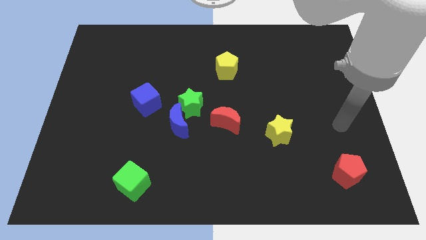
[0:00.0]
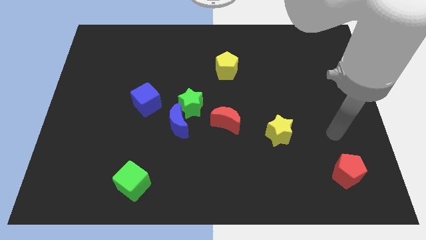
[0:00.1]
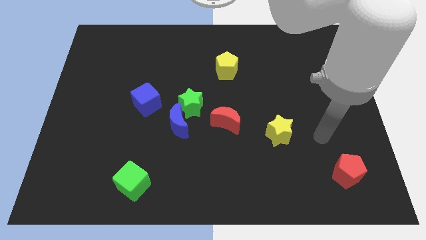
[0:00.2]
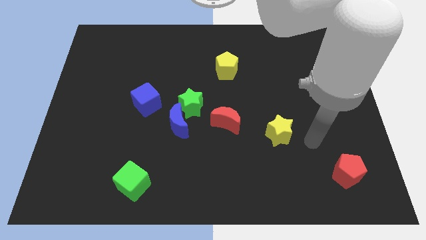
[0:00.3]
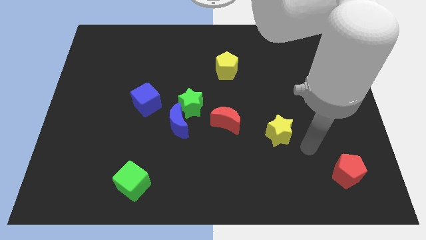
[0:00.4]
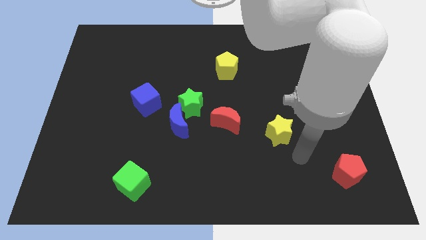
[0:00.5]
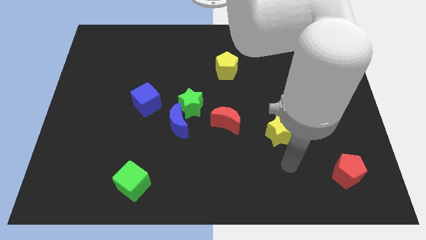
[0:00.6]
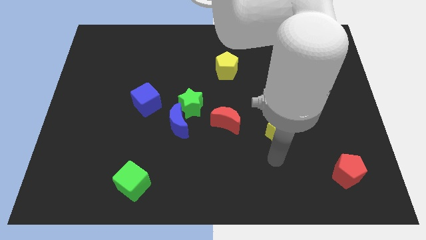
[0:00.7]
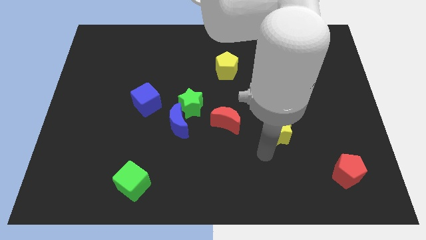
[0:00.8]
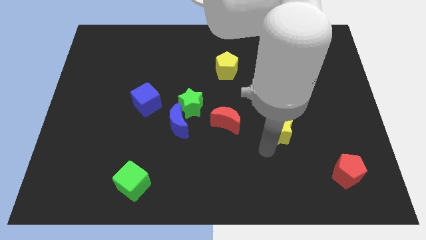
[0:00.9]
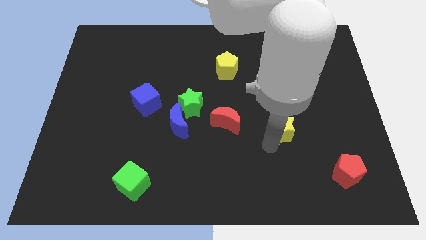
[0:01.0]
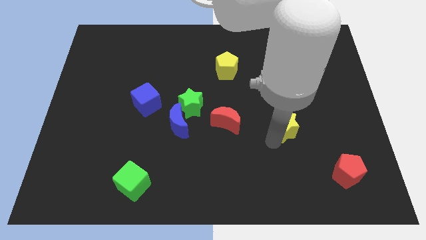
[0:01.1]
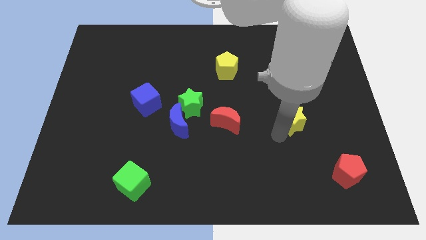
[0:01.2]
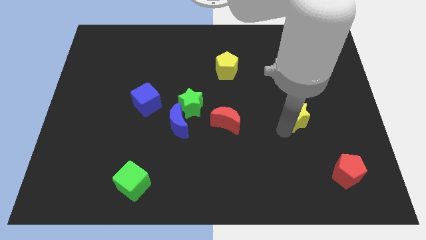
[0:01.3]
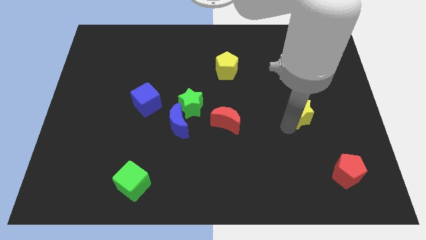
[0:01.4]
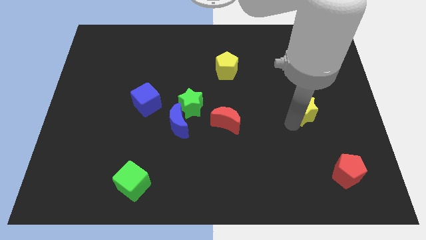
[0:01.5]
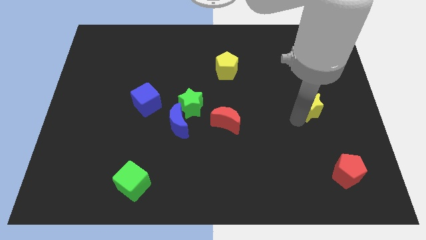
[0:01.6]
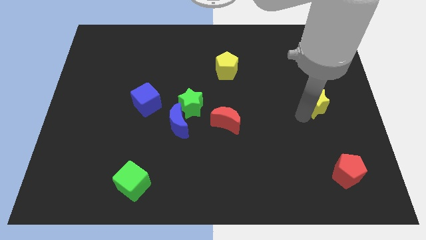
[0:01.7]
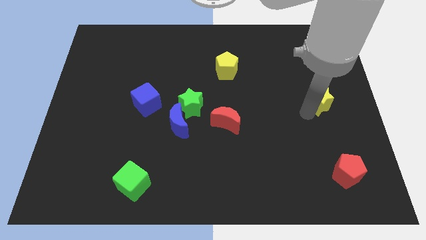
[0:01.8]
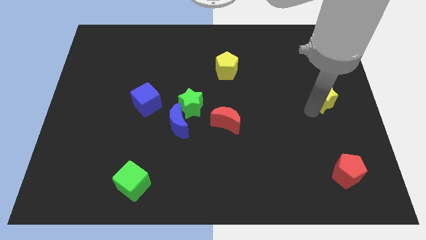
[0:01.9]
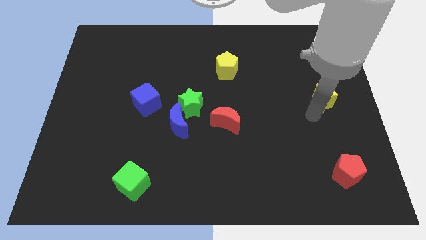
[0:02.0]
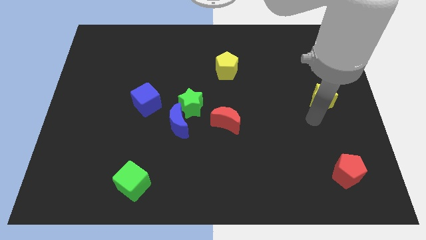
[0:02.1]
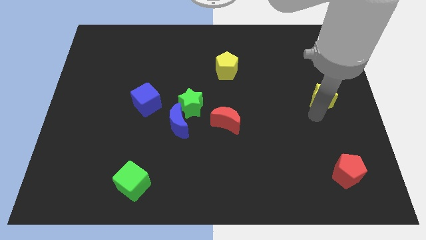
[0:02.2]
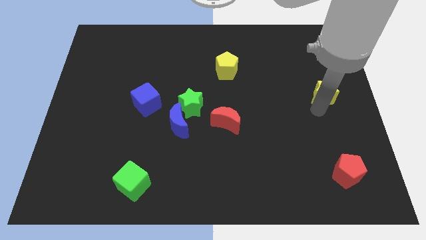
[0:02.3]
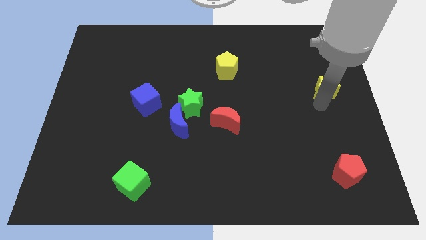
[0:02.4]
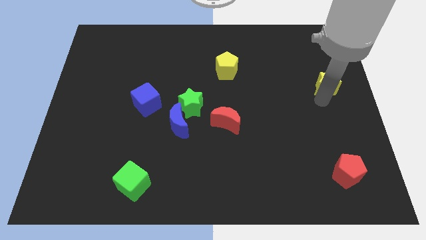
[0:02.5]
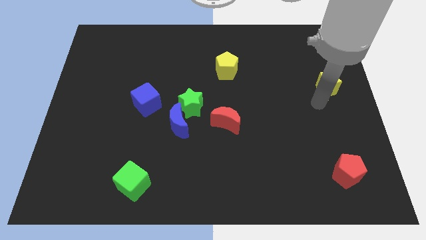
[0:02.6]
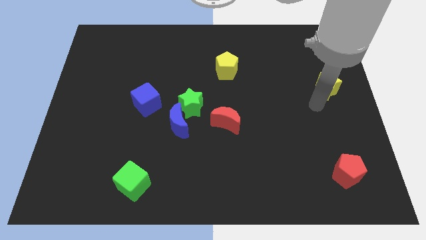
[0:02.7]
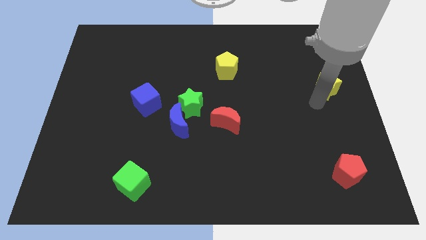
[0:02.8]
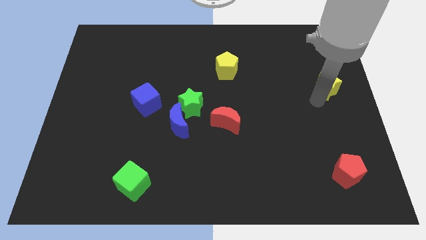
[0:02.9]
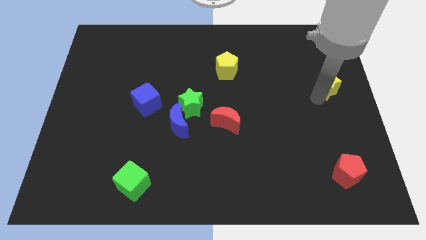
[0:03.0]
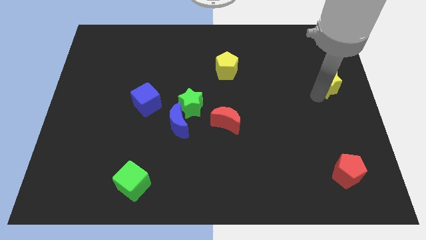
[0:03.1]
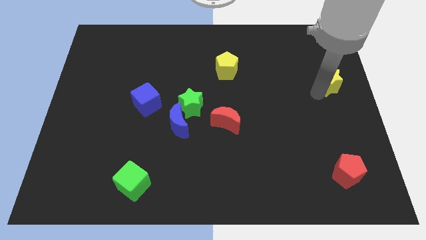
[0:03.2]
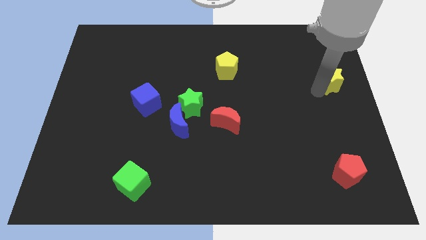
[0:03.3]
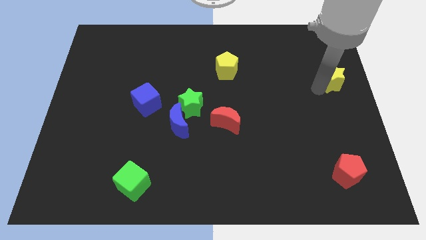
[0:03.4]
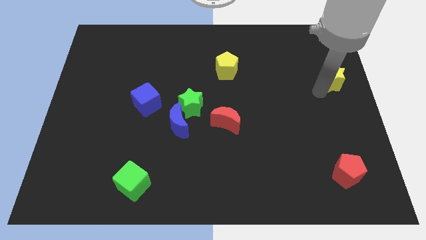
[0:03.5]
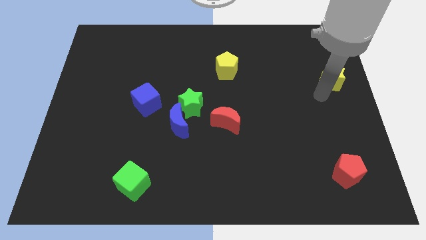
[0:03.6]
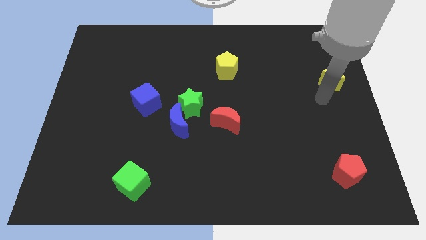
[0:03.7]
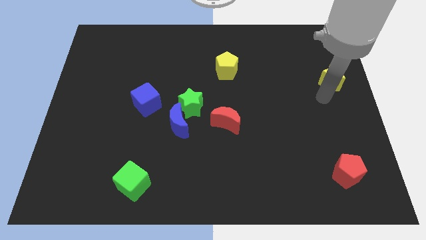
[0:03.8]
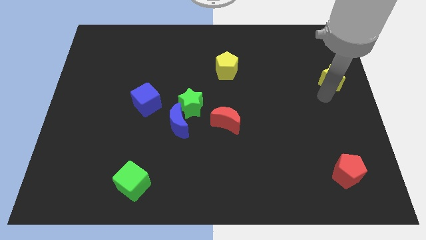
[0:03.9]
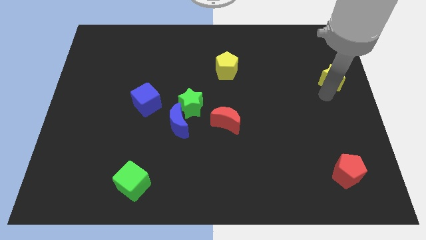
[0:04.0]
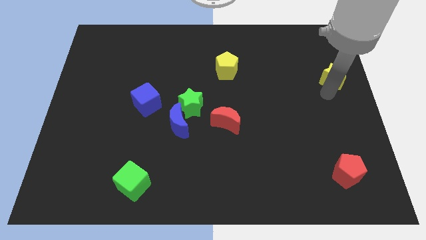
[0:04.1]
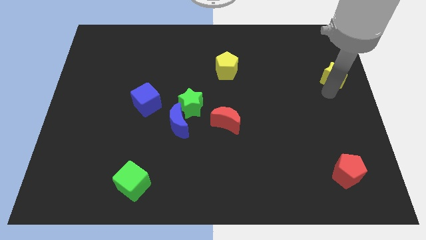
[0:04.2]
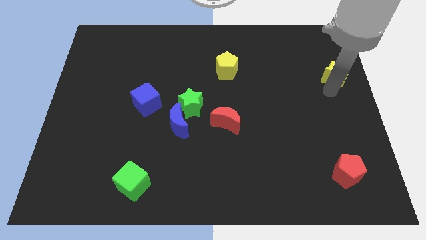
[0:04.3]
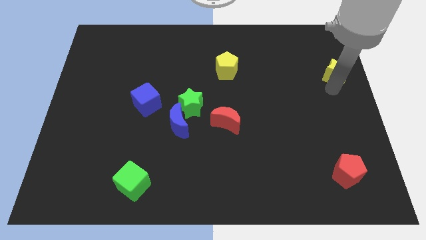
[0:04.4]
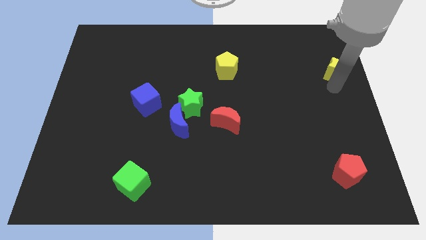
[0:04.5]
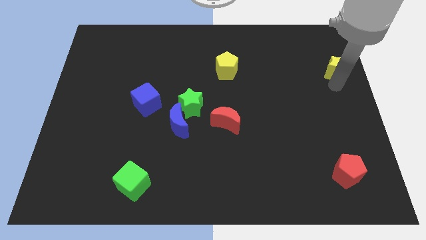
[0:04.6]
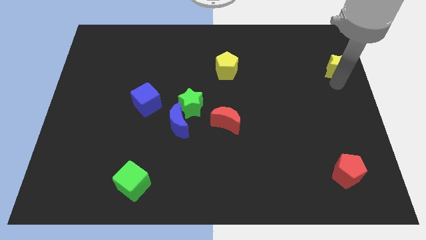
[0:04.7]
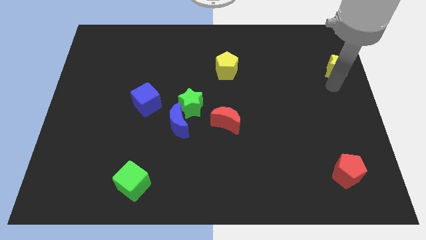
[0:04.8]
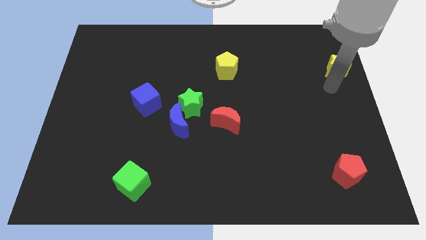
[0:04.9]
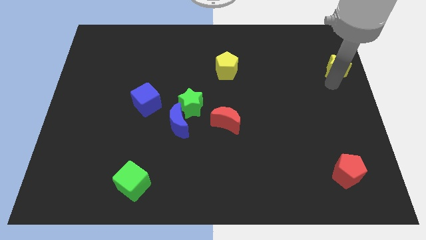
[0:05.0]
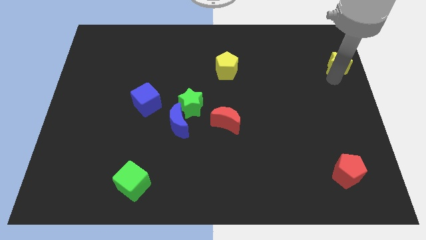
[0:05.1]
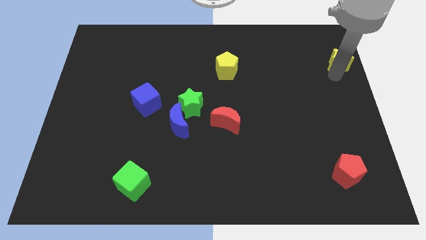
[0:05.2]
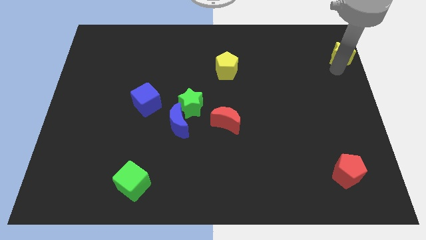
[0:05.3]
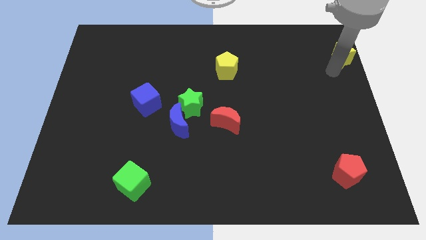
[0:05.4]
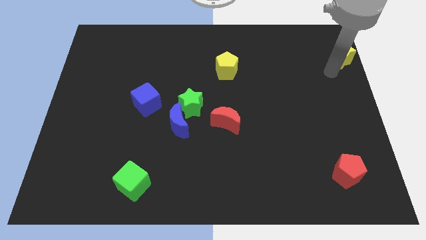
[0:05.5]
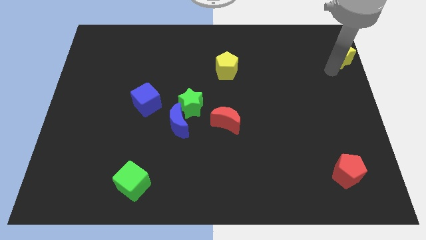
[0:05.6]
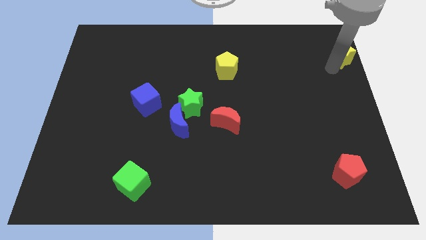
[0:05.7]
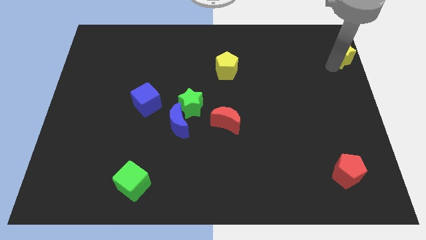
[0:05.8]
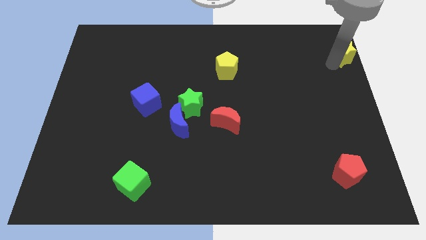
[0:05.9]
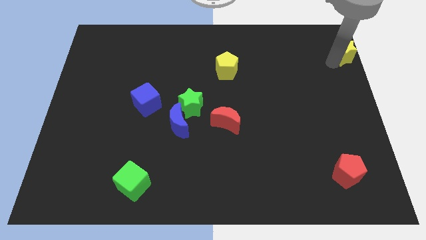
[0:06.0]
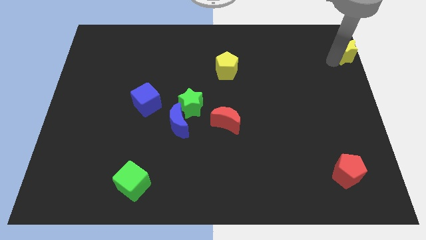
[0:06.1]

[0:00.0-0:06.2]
push the yellow star to the top right corner

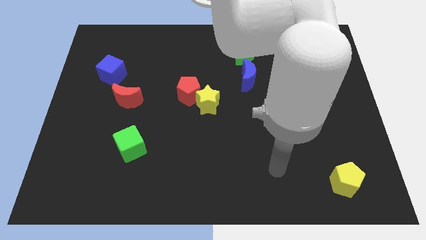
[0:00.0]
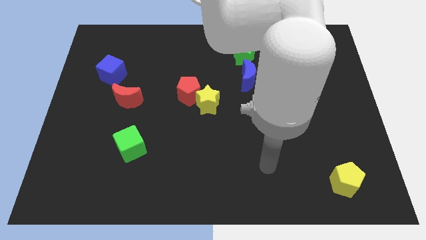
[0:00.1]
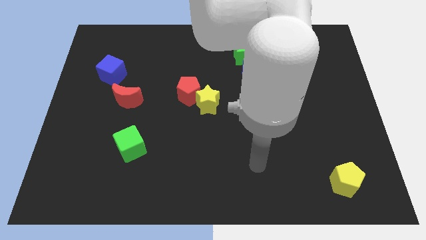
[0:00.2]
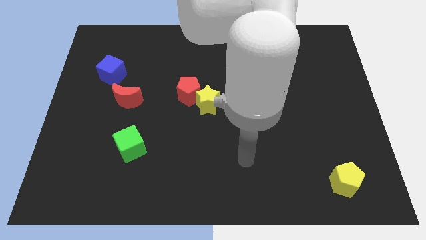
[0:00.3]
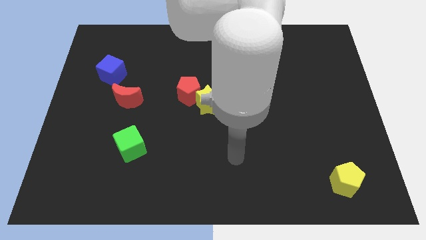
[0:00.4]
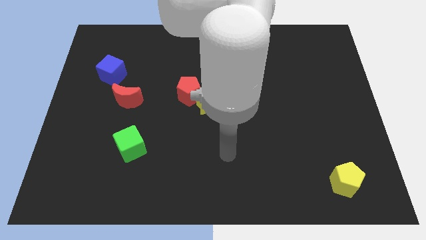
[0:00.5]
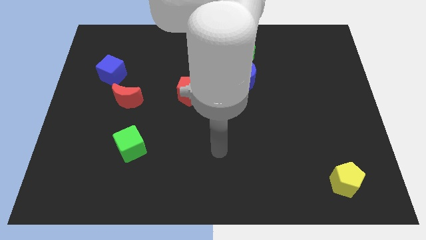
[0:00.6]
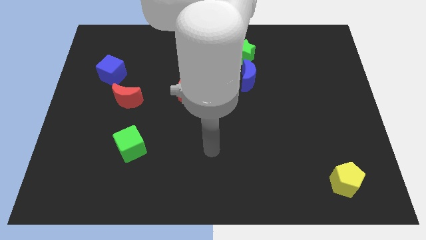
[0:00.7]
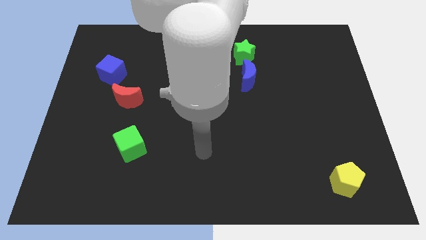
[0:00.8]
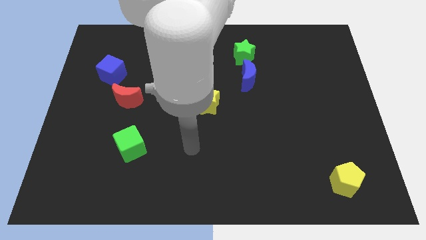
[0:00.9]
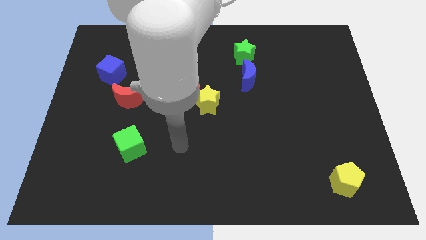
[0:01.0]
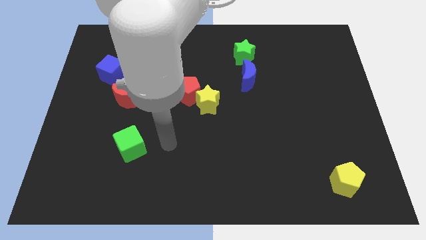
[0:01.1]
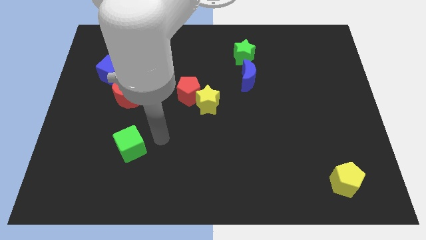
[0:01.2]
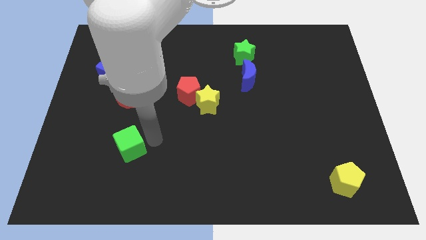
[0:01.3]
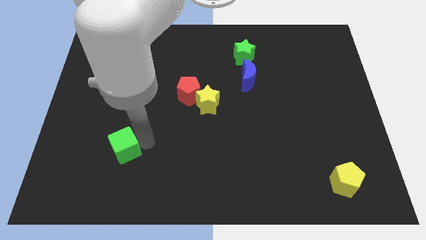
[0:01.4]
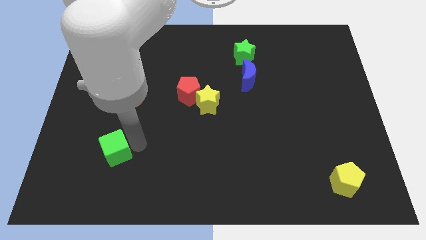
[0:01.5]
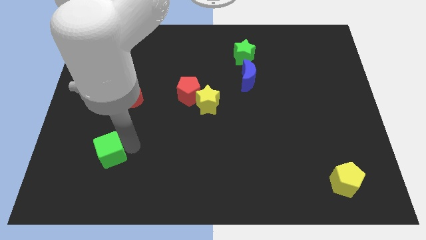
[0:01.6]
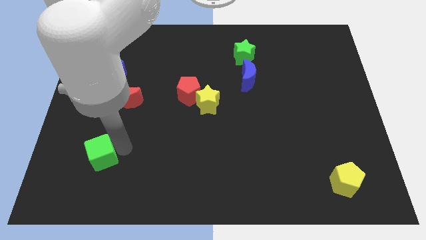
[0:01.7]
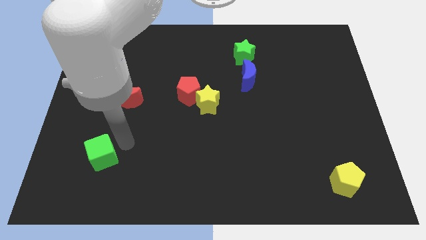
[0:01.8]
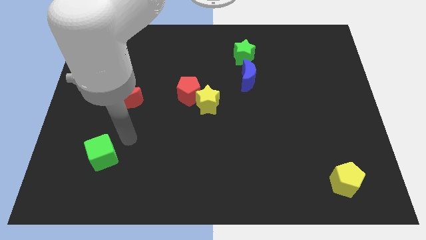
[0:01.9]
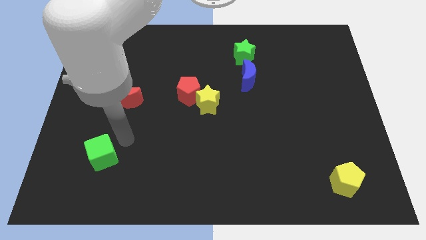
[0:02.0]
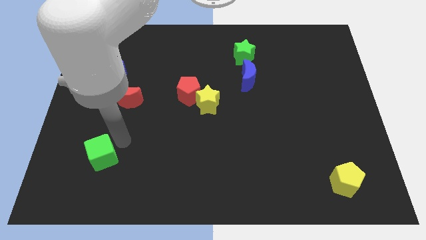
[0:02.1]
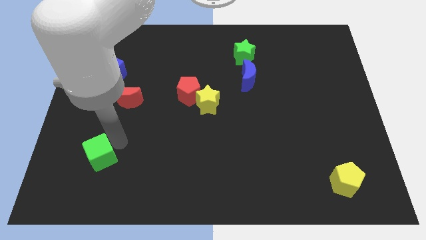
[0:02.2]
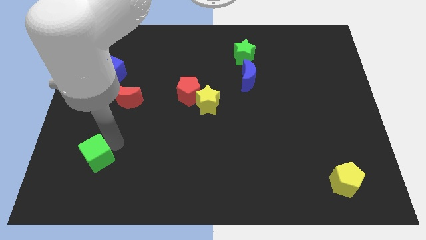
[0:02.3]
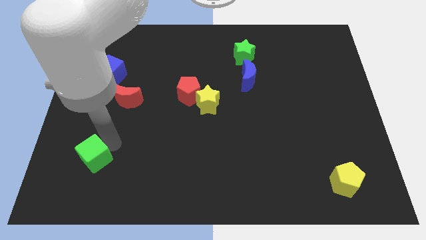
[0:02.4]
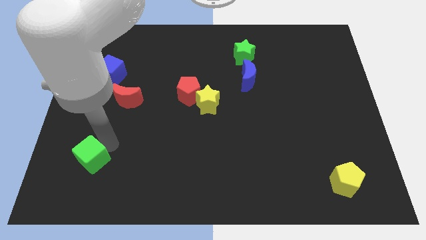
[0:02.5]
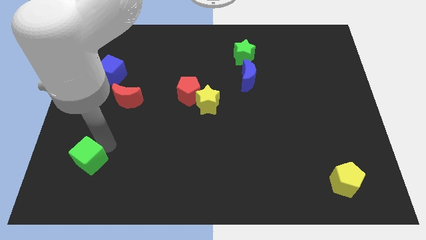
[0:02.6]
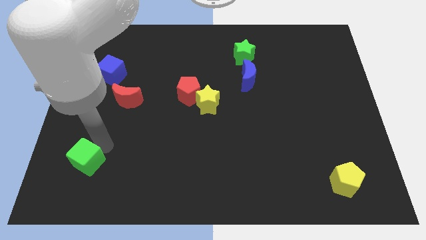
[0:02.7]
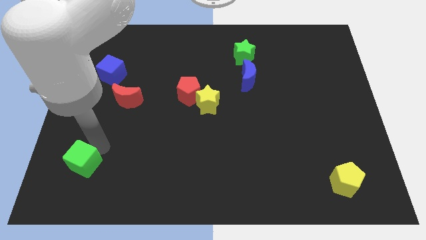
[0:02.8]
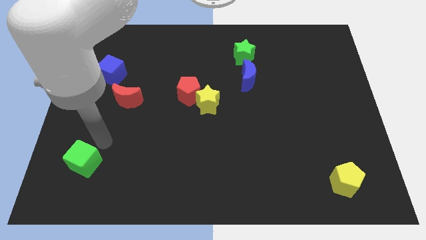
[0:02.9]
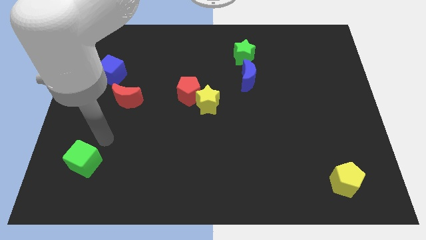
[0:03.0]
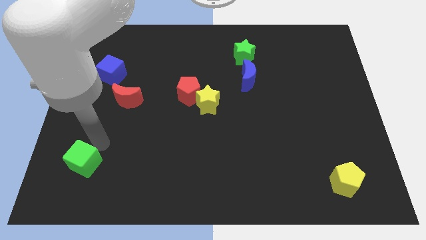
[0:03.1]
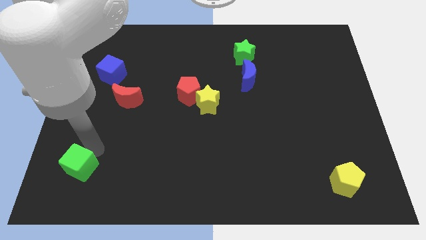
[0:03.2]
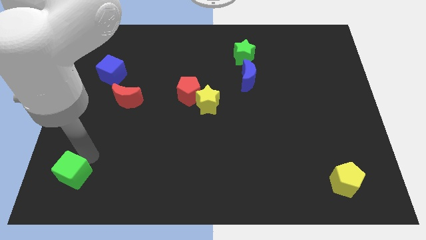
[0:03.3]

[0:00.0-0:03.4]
move the green cube to the bottom left of the board
